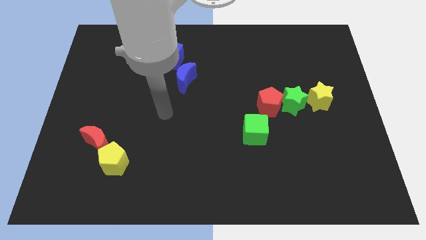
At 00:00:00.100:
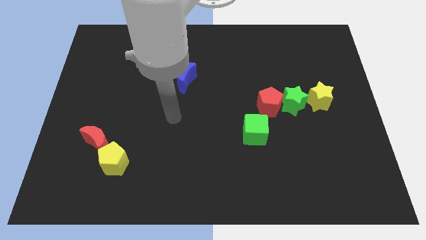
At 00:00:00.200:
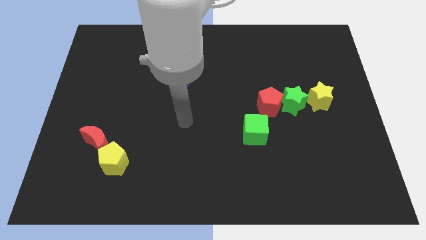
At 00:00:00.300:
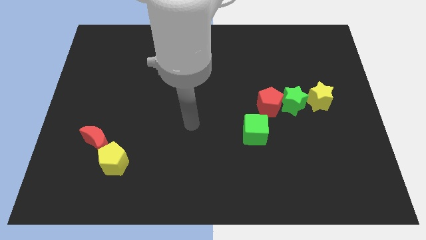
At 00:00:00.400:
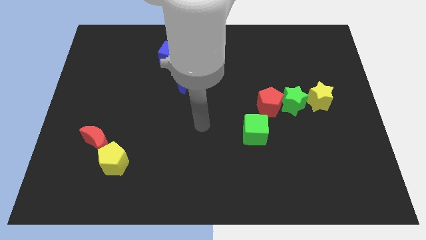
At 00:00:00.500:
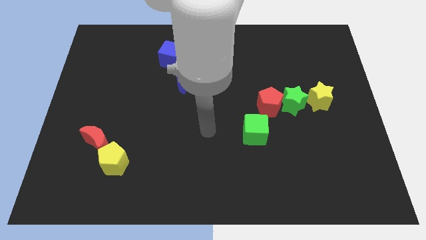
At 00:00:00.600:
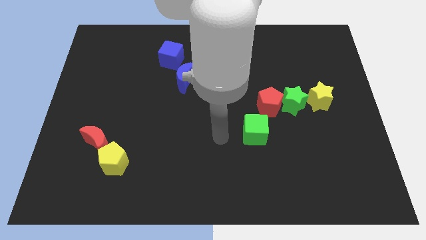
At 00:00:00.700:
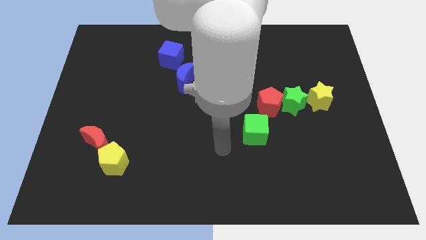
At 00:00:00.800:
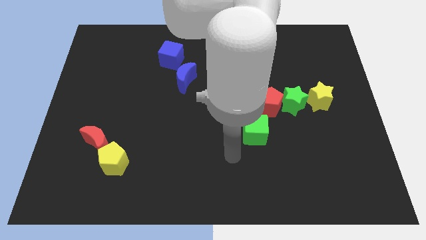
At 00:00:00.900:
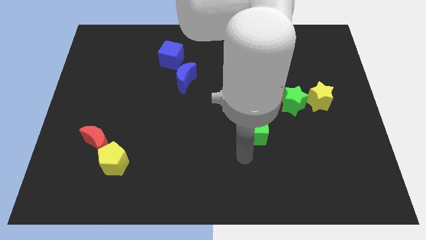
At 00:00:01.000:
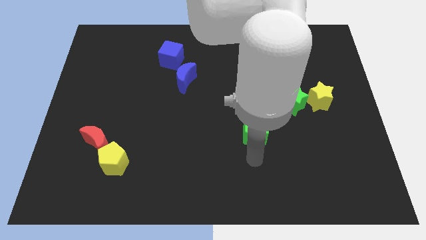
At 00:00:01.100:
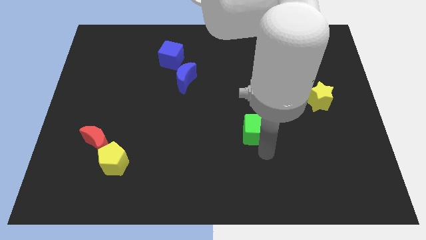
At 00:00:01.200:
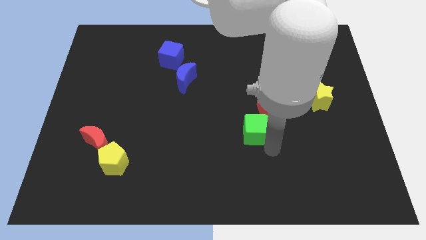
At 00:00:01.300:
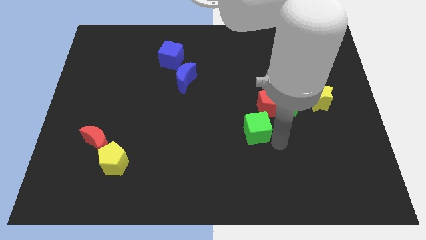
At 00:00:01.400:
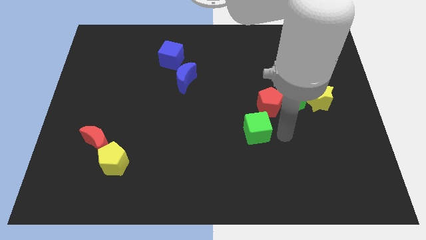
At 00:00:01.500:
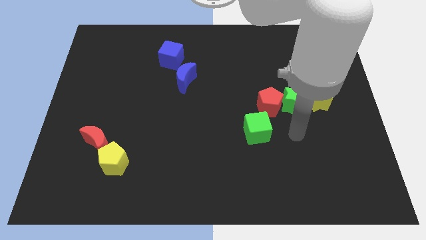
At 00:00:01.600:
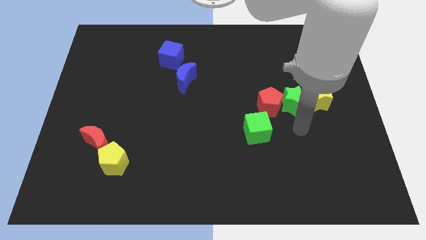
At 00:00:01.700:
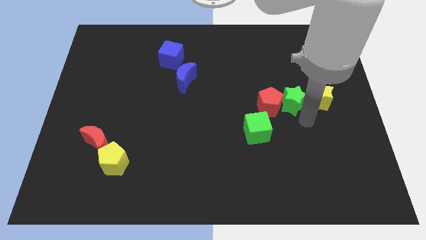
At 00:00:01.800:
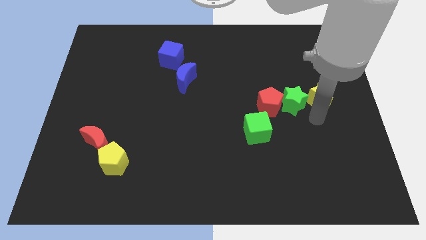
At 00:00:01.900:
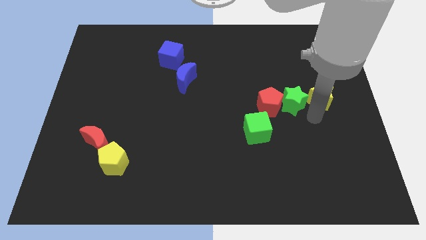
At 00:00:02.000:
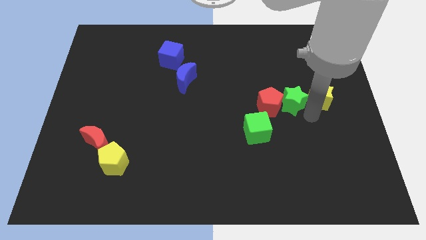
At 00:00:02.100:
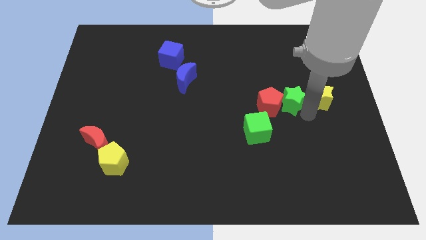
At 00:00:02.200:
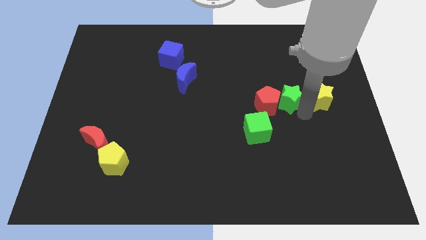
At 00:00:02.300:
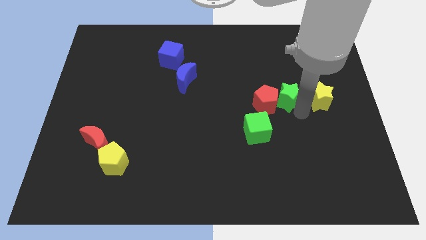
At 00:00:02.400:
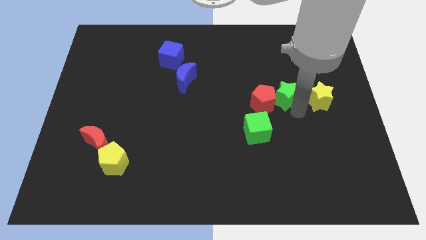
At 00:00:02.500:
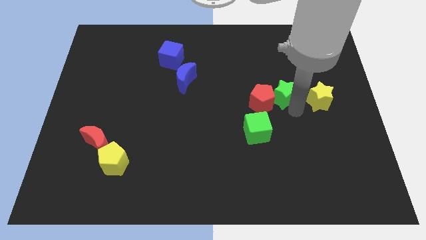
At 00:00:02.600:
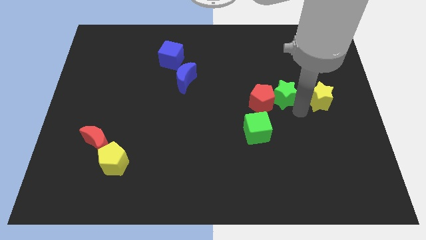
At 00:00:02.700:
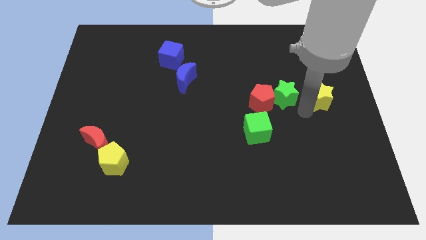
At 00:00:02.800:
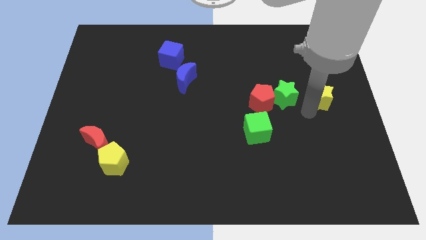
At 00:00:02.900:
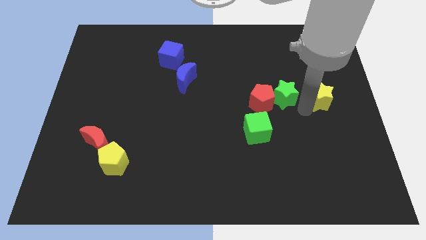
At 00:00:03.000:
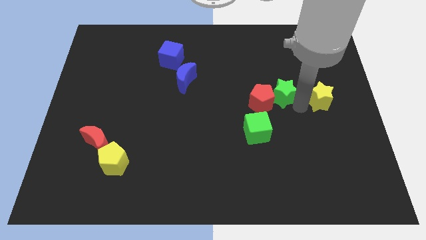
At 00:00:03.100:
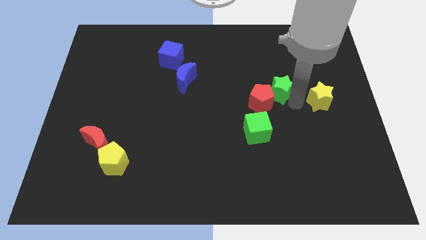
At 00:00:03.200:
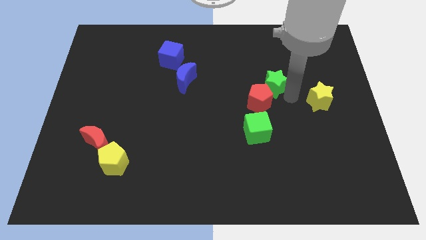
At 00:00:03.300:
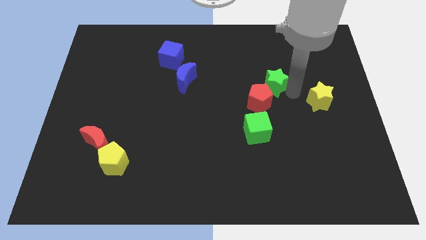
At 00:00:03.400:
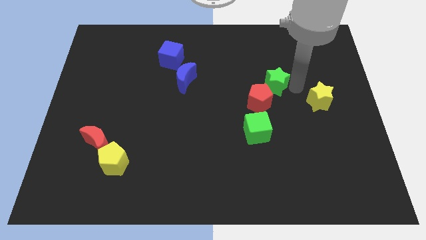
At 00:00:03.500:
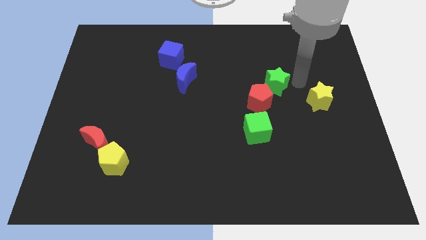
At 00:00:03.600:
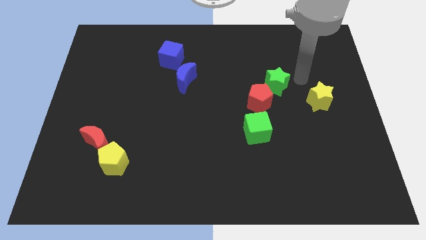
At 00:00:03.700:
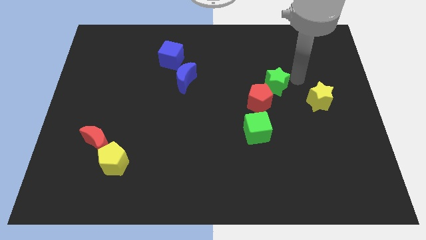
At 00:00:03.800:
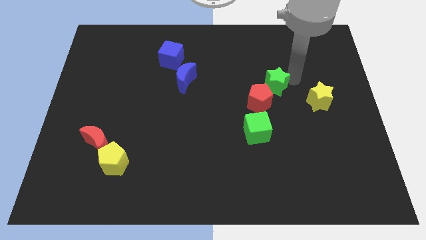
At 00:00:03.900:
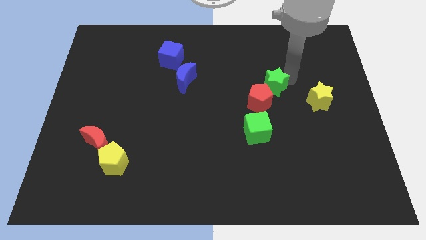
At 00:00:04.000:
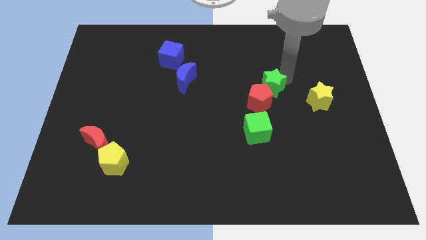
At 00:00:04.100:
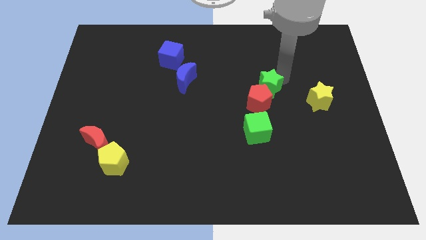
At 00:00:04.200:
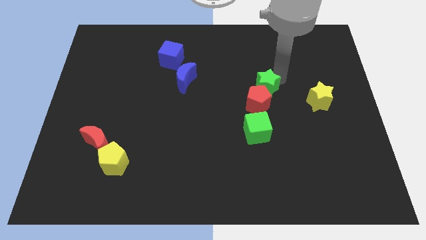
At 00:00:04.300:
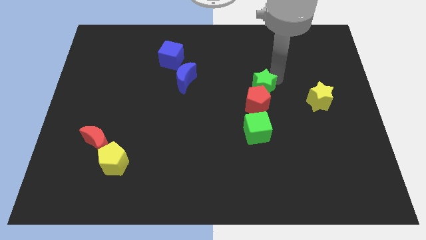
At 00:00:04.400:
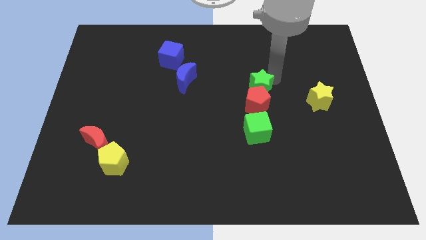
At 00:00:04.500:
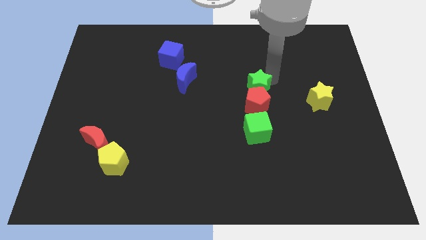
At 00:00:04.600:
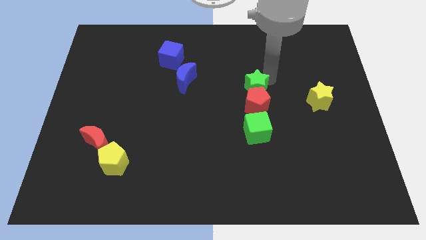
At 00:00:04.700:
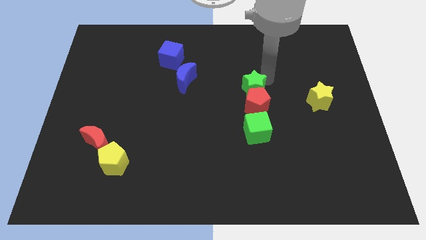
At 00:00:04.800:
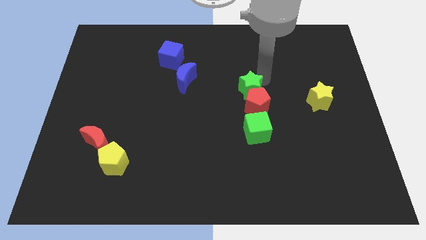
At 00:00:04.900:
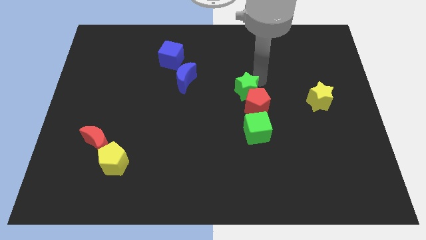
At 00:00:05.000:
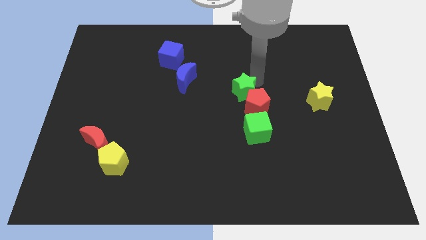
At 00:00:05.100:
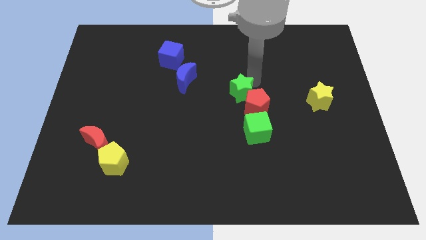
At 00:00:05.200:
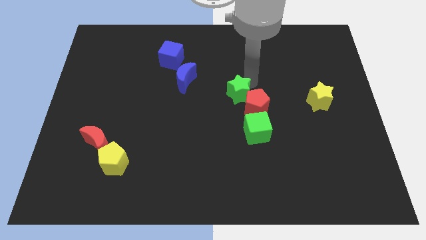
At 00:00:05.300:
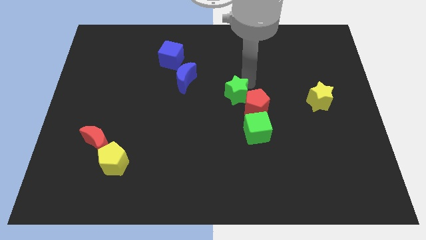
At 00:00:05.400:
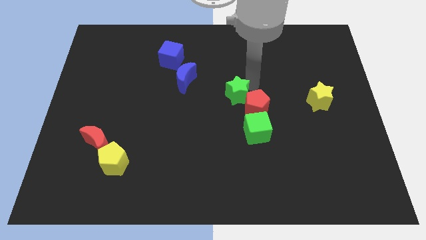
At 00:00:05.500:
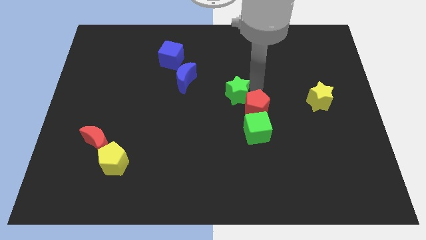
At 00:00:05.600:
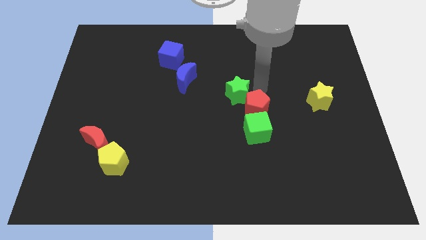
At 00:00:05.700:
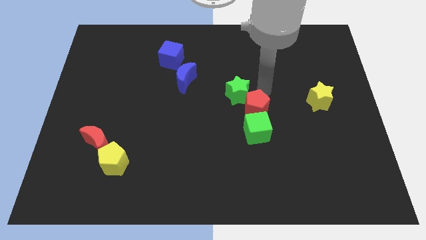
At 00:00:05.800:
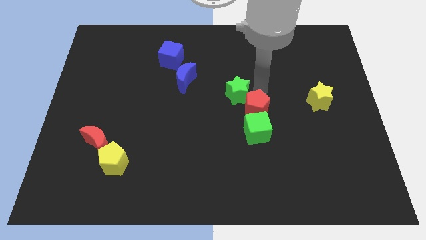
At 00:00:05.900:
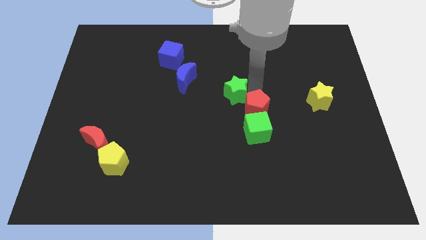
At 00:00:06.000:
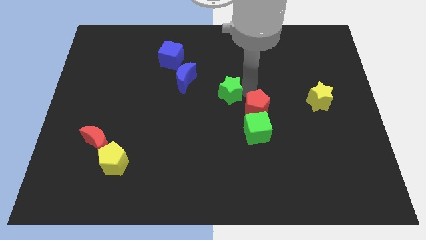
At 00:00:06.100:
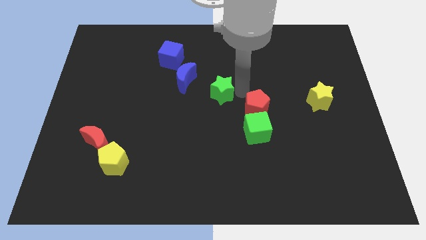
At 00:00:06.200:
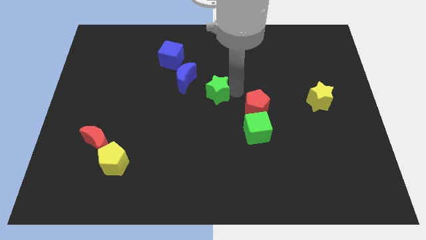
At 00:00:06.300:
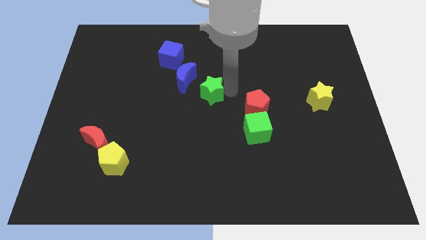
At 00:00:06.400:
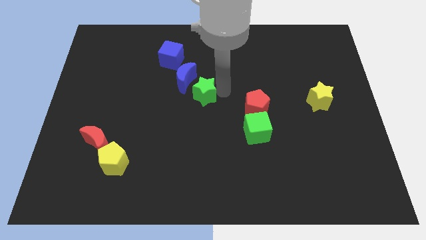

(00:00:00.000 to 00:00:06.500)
move the green star left

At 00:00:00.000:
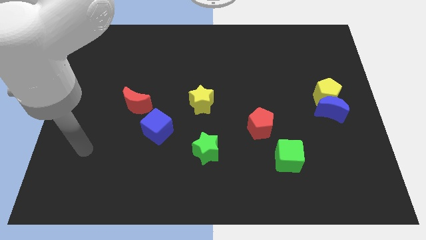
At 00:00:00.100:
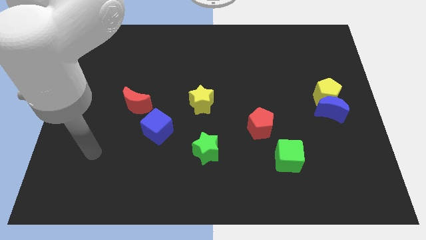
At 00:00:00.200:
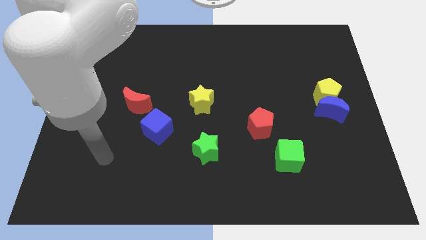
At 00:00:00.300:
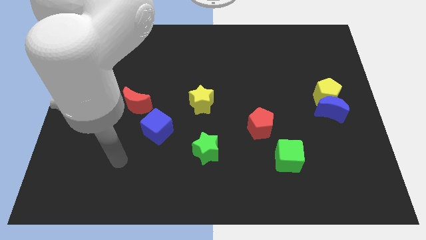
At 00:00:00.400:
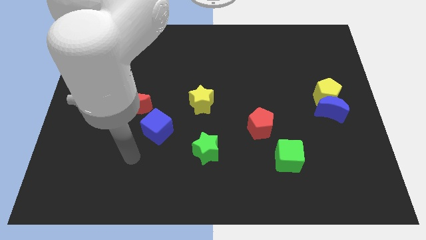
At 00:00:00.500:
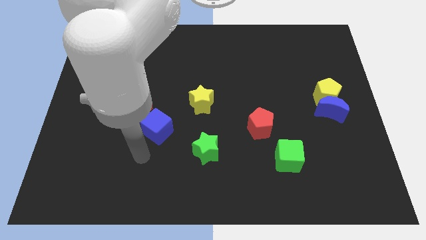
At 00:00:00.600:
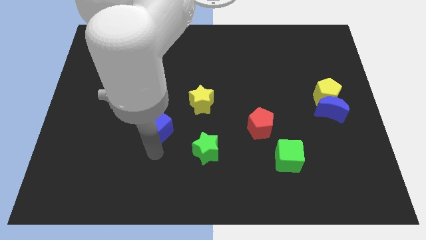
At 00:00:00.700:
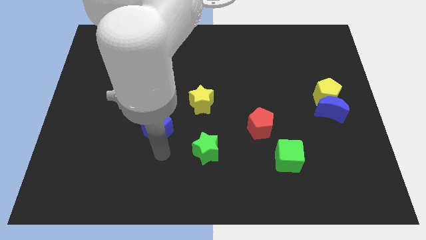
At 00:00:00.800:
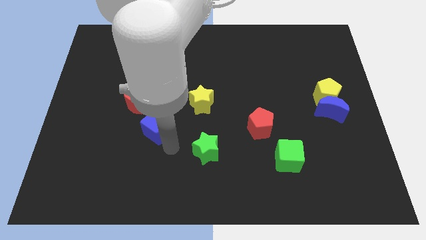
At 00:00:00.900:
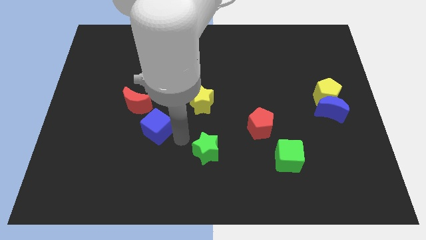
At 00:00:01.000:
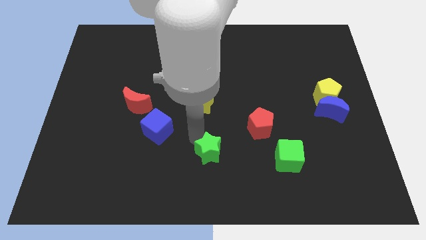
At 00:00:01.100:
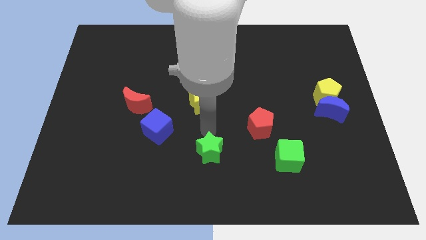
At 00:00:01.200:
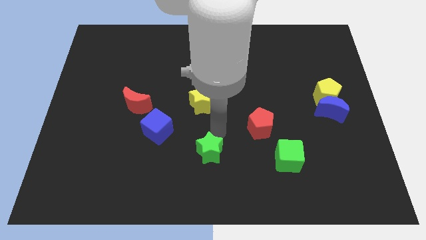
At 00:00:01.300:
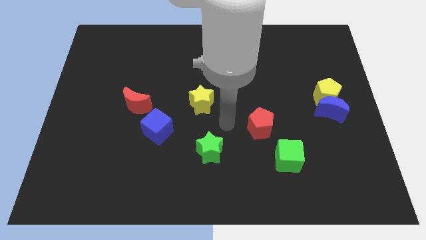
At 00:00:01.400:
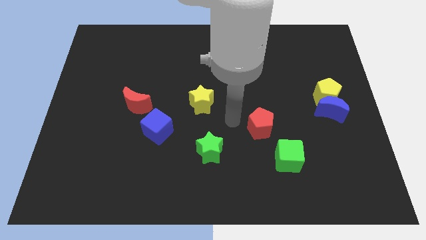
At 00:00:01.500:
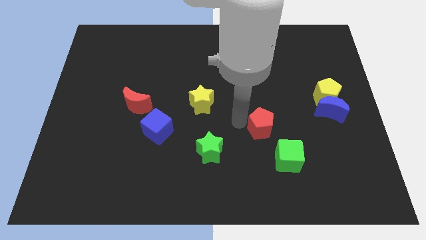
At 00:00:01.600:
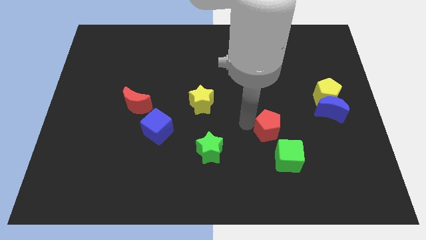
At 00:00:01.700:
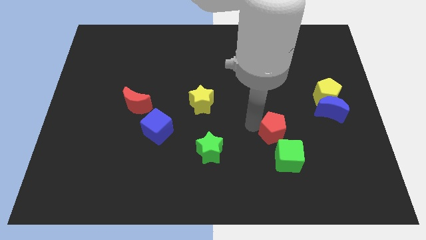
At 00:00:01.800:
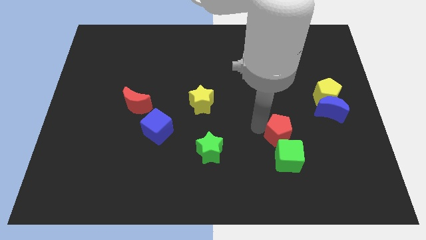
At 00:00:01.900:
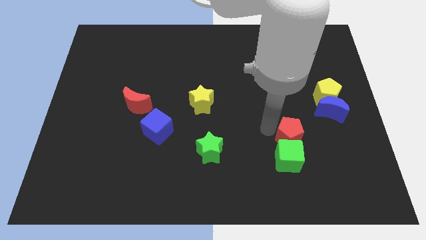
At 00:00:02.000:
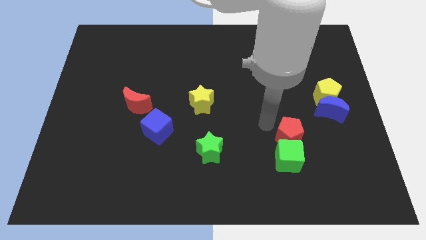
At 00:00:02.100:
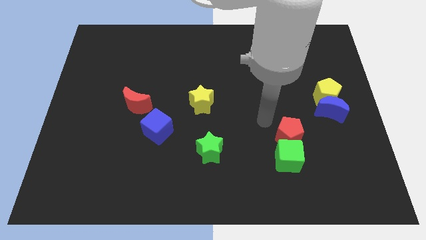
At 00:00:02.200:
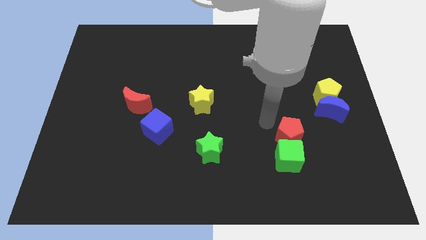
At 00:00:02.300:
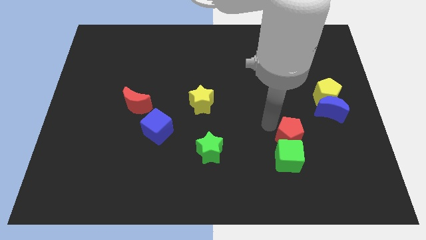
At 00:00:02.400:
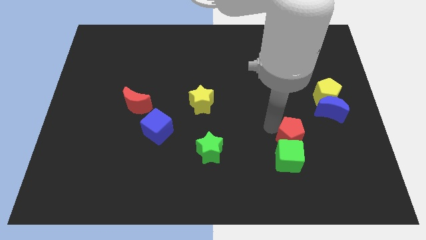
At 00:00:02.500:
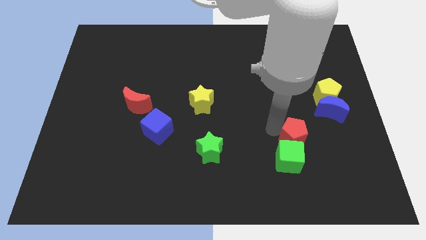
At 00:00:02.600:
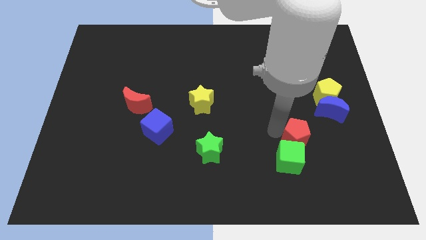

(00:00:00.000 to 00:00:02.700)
move the red pentagon somewhat downwards and then to the right
